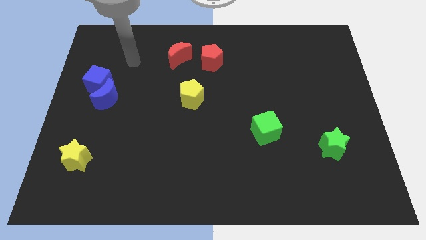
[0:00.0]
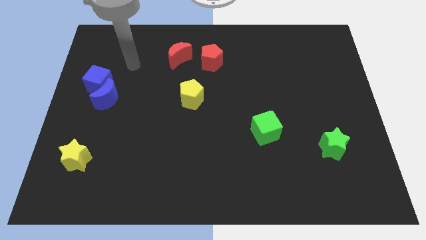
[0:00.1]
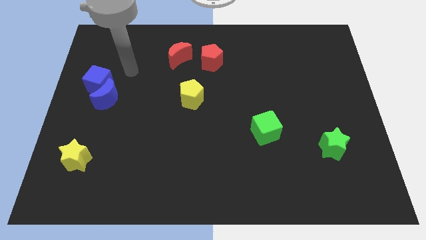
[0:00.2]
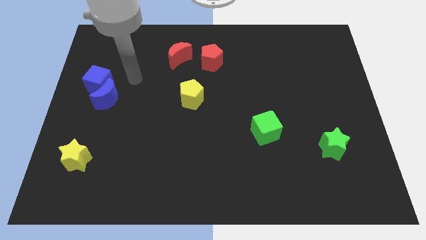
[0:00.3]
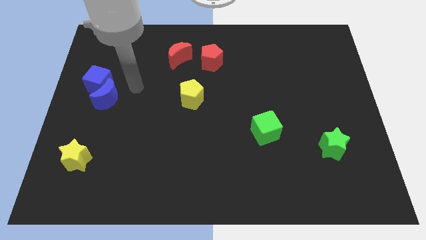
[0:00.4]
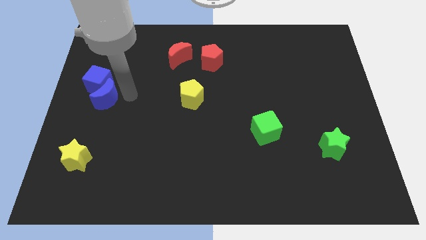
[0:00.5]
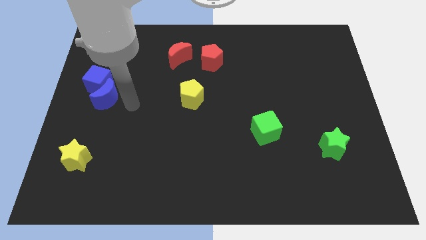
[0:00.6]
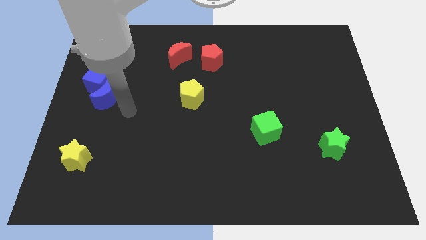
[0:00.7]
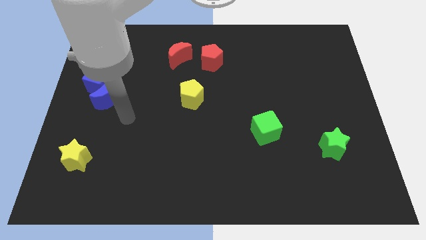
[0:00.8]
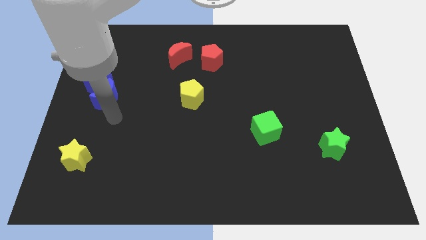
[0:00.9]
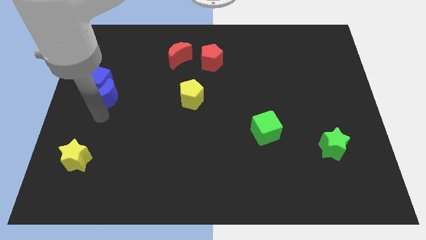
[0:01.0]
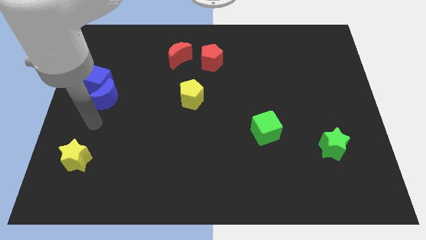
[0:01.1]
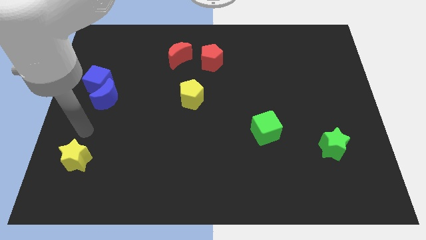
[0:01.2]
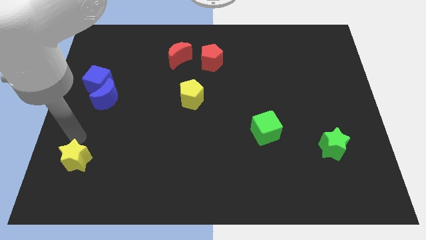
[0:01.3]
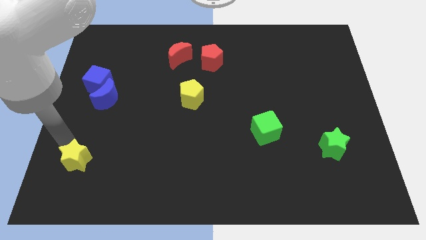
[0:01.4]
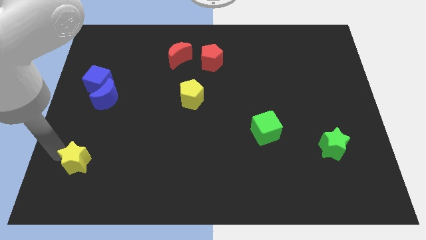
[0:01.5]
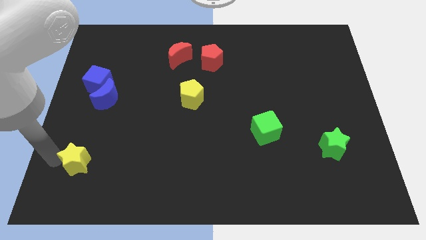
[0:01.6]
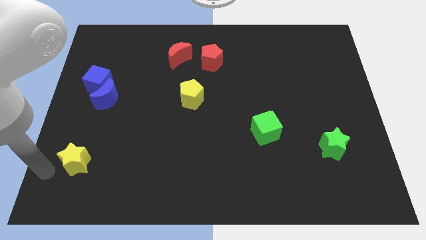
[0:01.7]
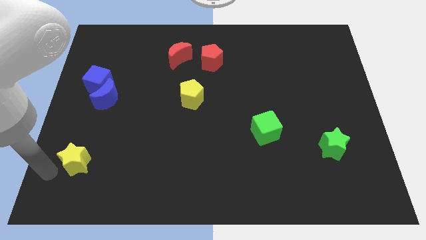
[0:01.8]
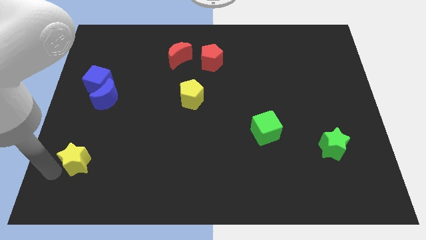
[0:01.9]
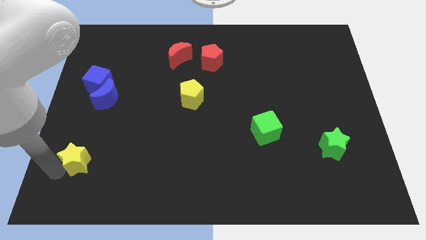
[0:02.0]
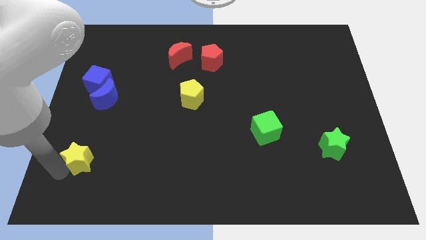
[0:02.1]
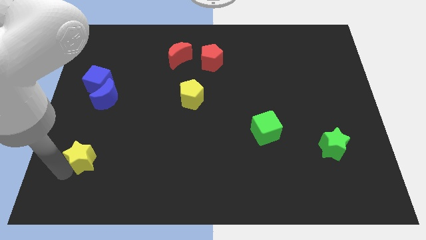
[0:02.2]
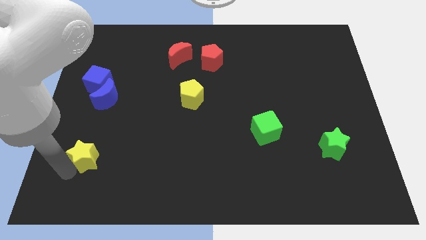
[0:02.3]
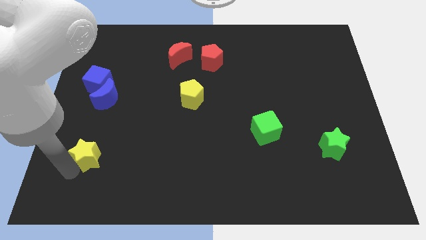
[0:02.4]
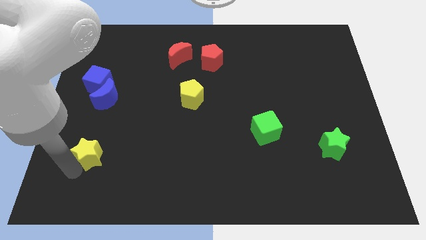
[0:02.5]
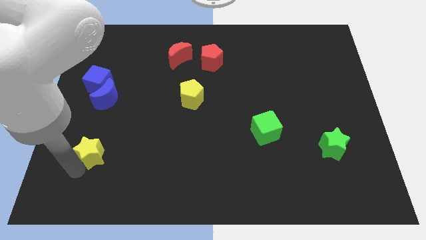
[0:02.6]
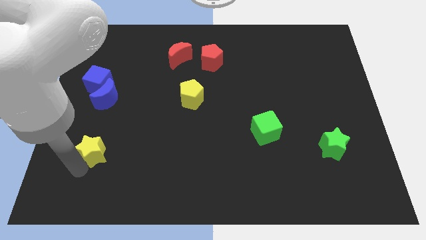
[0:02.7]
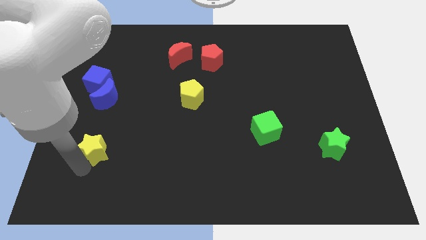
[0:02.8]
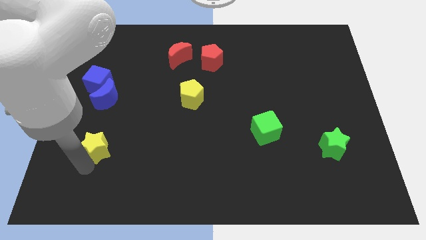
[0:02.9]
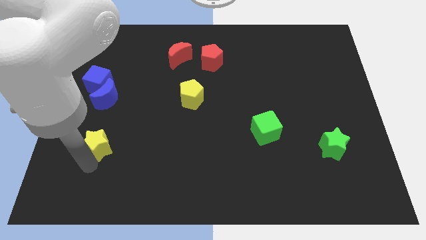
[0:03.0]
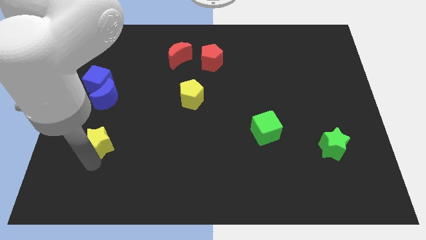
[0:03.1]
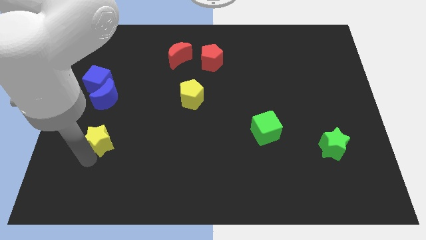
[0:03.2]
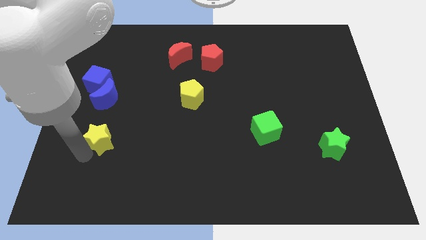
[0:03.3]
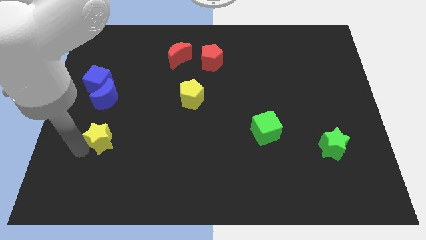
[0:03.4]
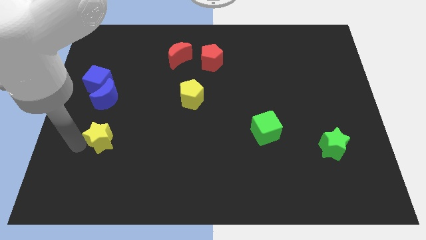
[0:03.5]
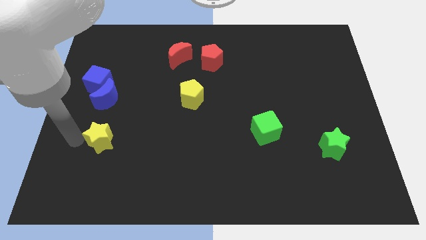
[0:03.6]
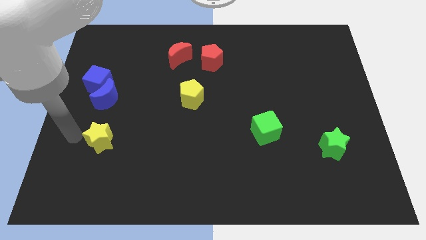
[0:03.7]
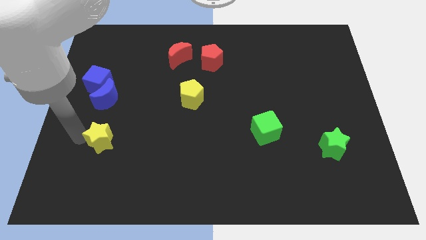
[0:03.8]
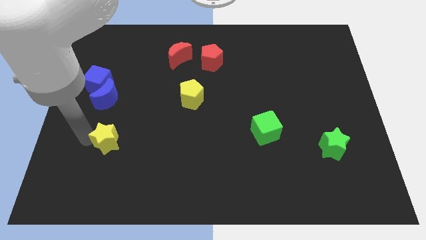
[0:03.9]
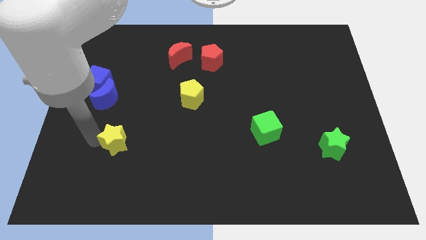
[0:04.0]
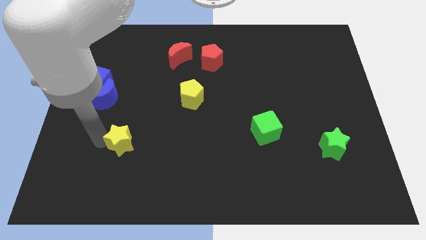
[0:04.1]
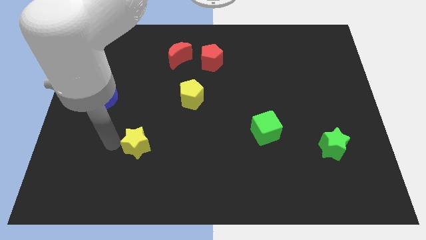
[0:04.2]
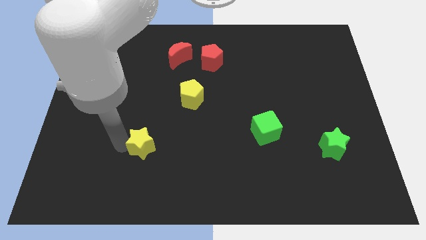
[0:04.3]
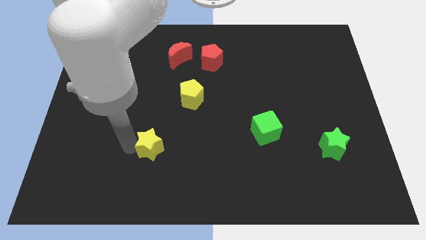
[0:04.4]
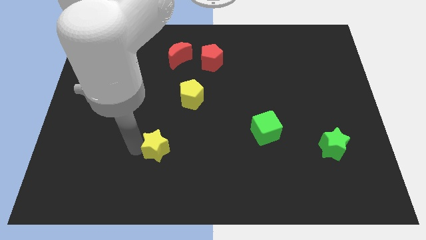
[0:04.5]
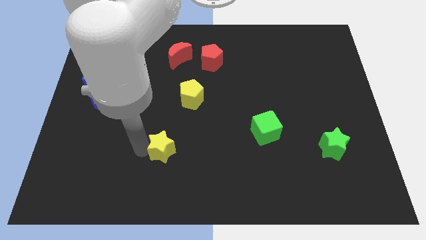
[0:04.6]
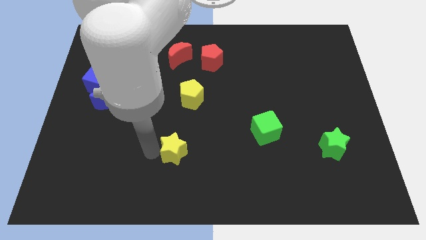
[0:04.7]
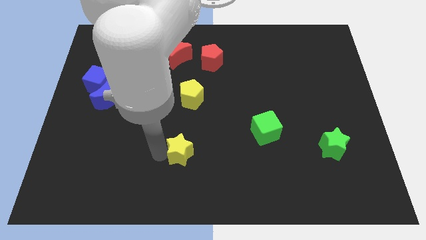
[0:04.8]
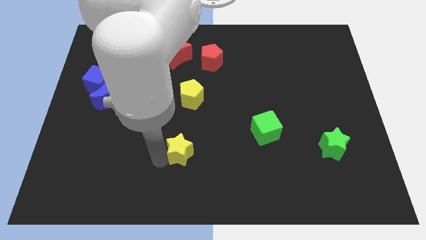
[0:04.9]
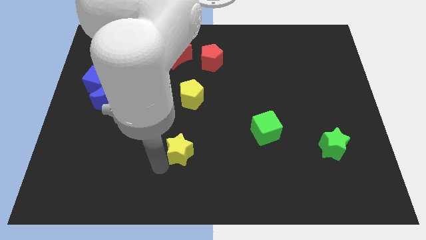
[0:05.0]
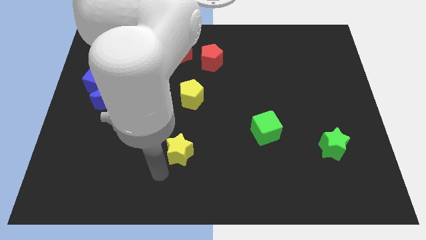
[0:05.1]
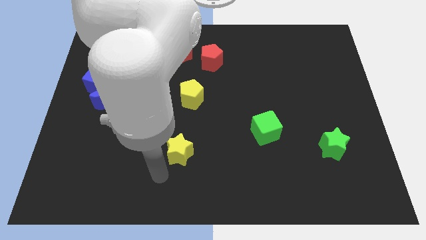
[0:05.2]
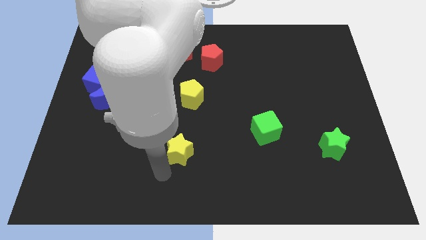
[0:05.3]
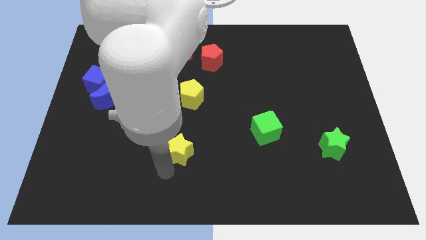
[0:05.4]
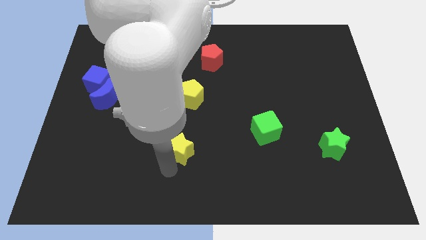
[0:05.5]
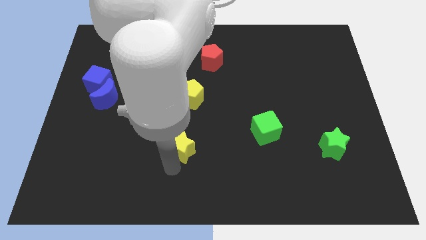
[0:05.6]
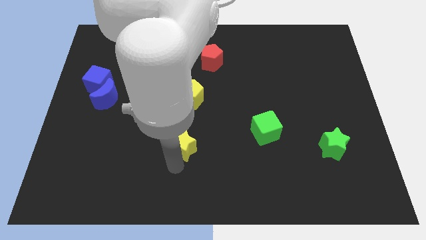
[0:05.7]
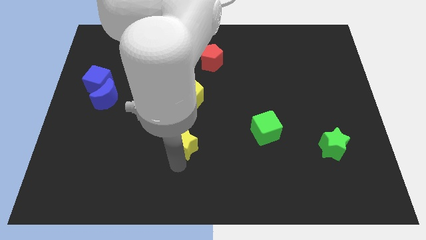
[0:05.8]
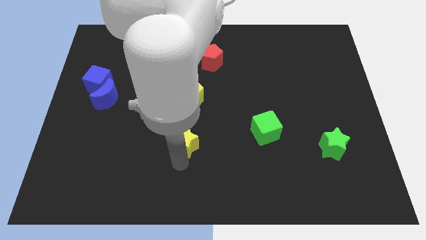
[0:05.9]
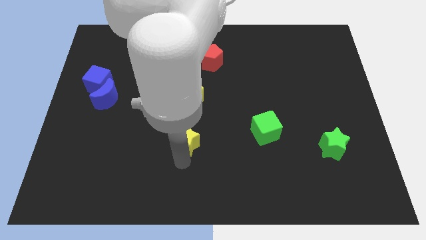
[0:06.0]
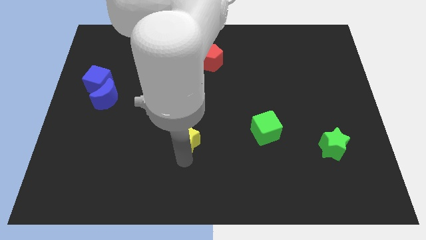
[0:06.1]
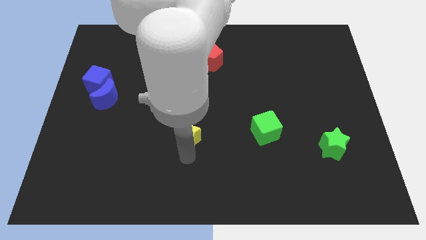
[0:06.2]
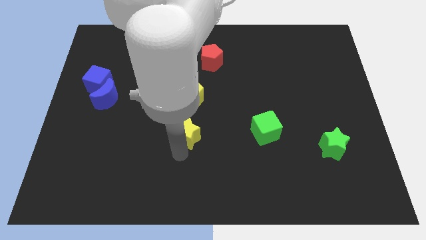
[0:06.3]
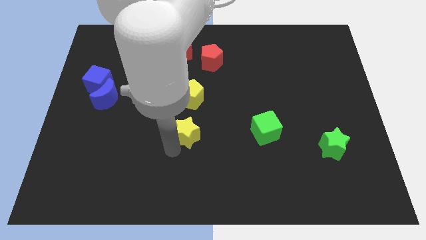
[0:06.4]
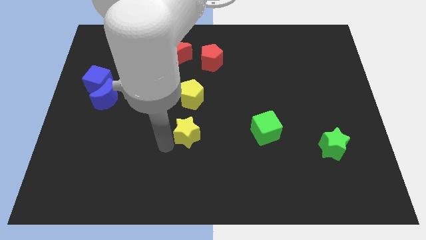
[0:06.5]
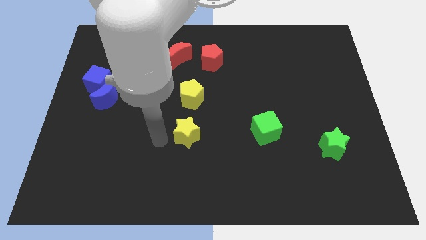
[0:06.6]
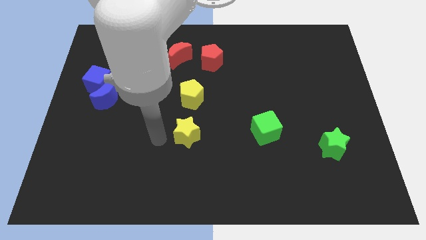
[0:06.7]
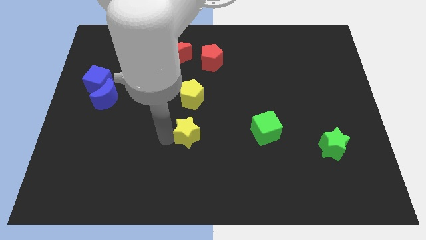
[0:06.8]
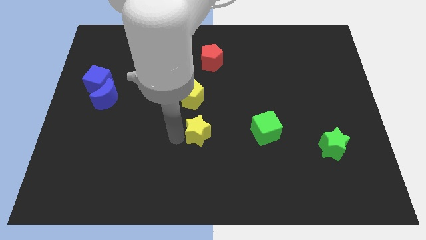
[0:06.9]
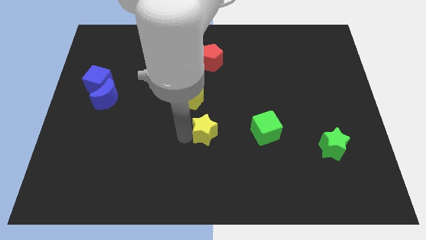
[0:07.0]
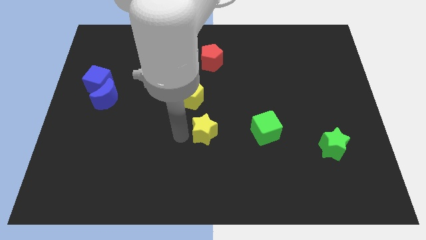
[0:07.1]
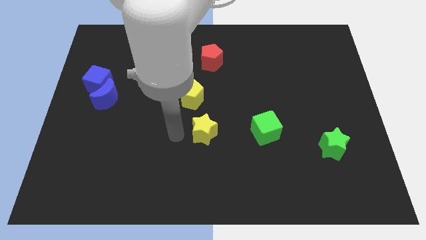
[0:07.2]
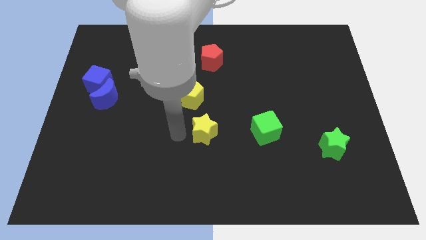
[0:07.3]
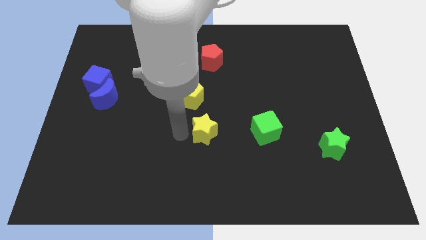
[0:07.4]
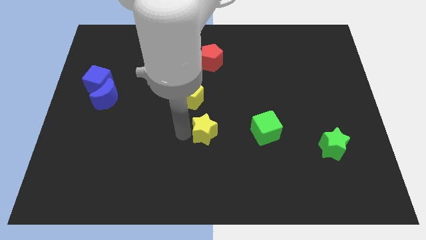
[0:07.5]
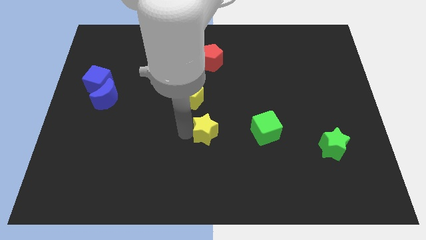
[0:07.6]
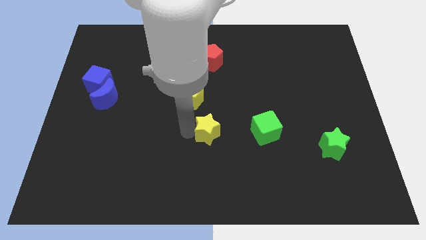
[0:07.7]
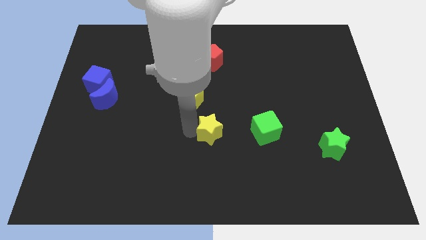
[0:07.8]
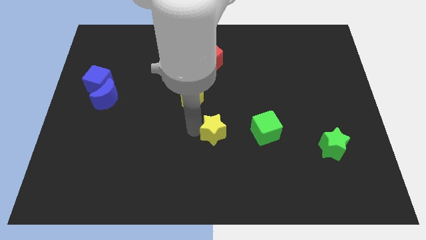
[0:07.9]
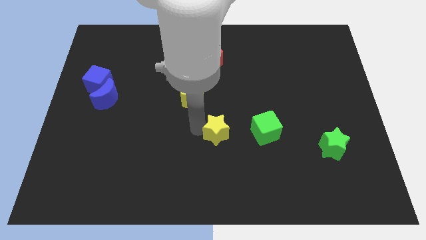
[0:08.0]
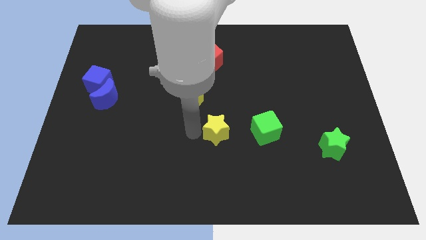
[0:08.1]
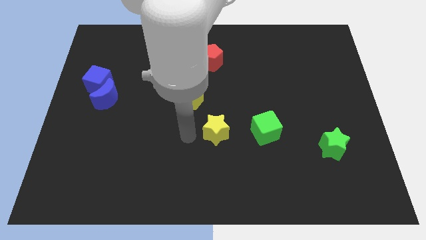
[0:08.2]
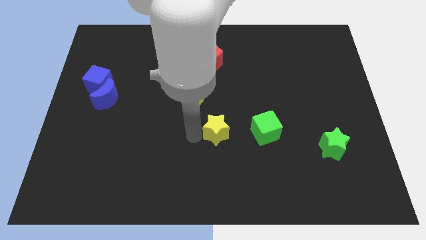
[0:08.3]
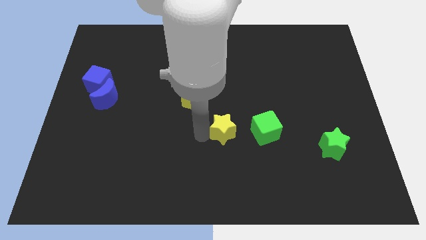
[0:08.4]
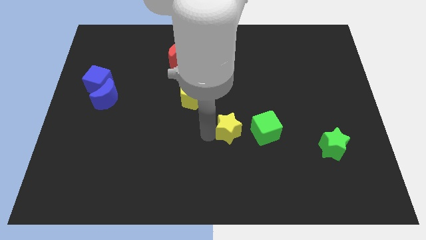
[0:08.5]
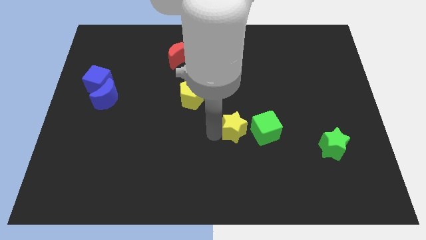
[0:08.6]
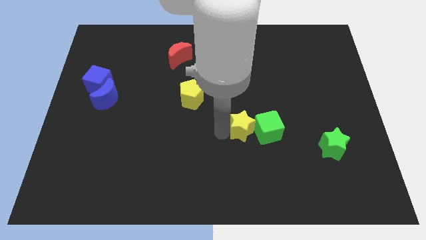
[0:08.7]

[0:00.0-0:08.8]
push the yellow star towards the green cube
